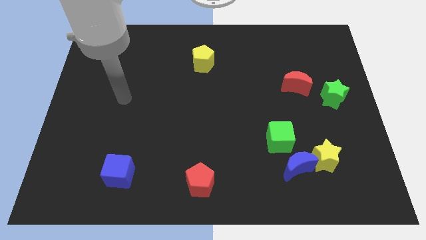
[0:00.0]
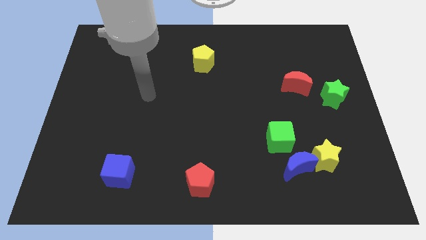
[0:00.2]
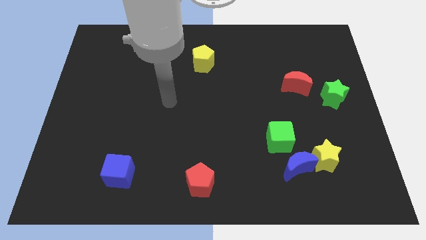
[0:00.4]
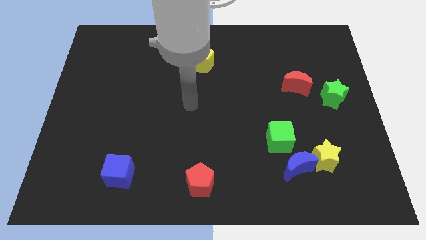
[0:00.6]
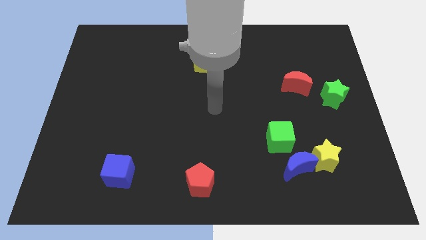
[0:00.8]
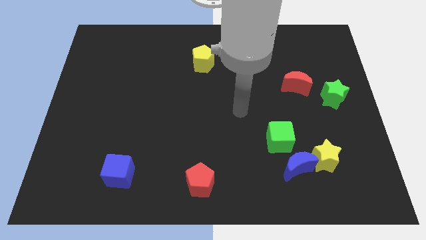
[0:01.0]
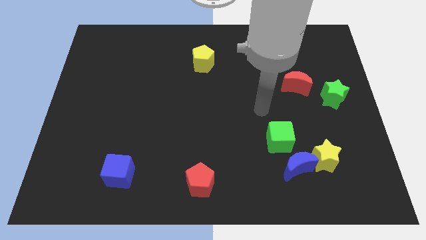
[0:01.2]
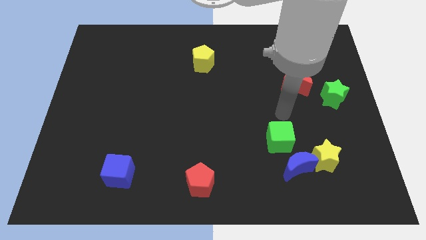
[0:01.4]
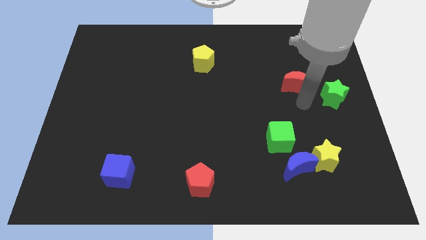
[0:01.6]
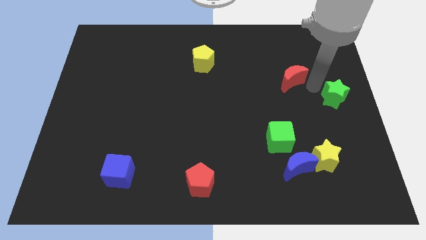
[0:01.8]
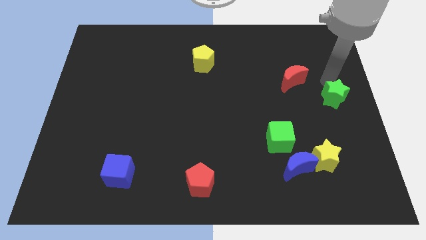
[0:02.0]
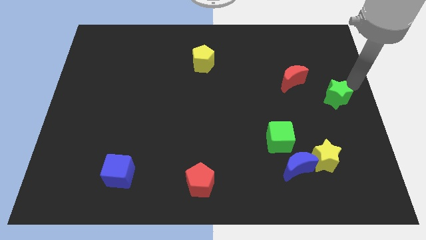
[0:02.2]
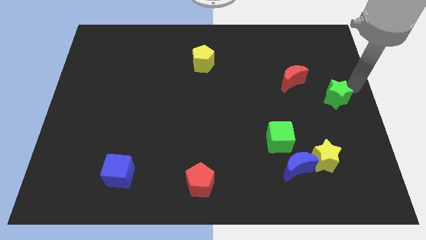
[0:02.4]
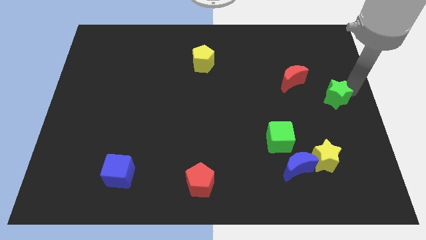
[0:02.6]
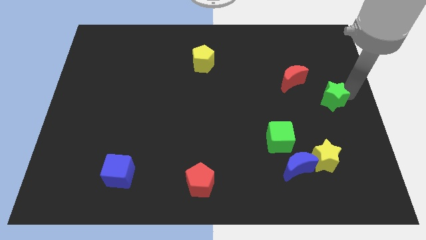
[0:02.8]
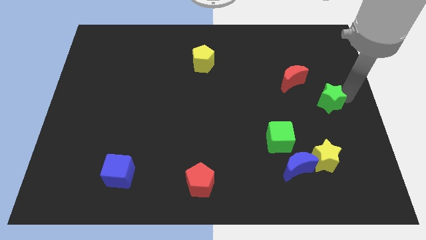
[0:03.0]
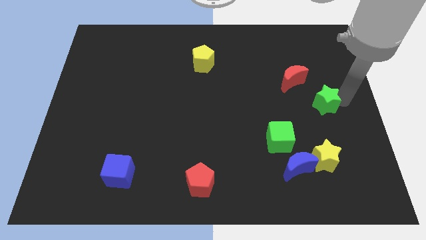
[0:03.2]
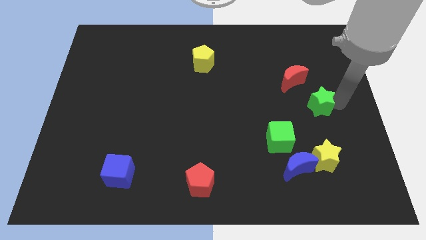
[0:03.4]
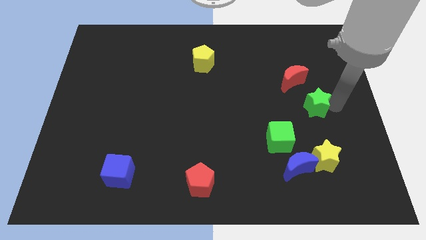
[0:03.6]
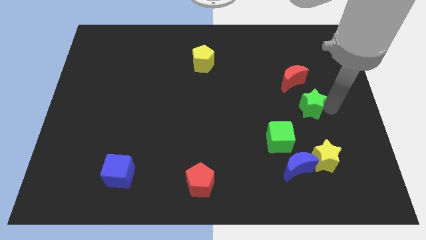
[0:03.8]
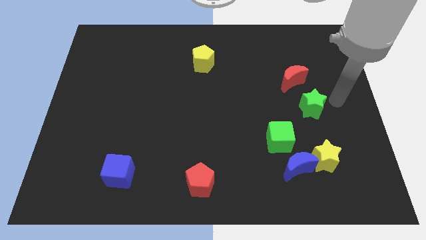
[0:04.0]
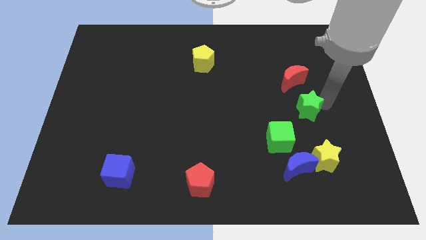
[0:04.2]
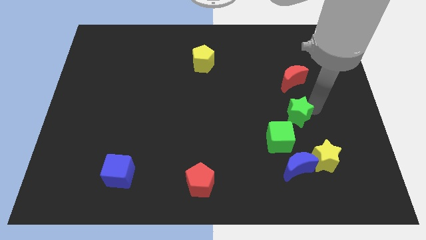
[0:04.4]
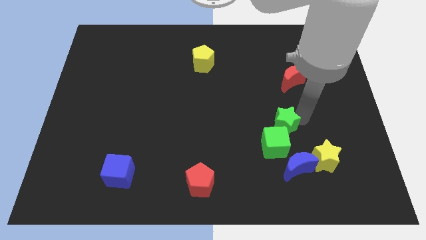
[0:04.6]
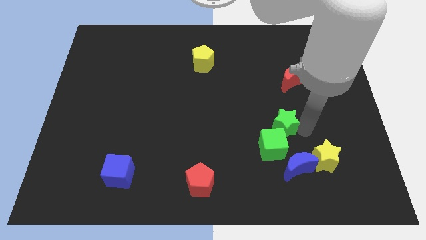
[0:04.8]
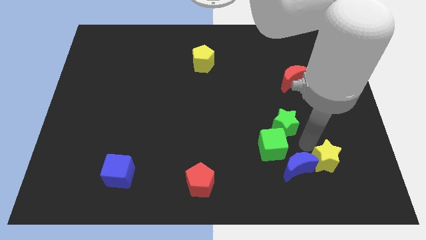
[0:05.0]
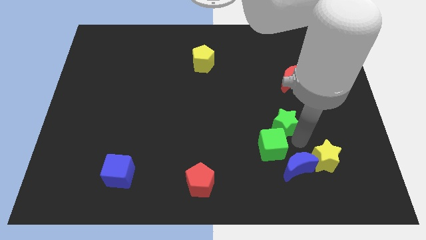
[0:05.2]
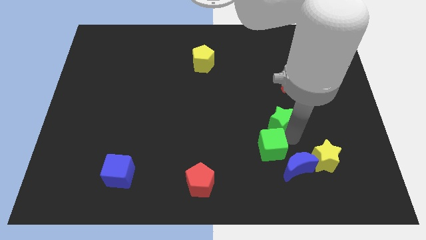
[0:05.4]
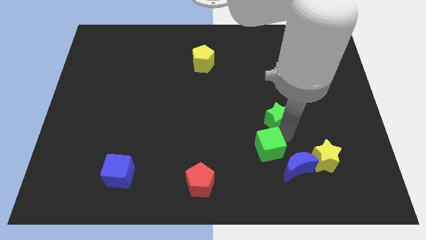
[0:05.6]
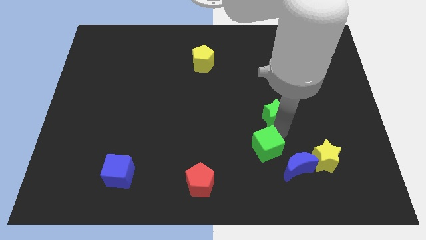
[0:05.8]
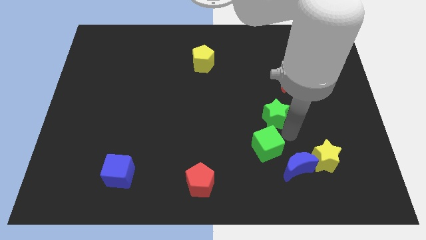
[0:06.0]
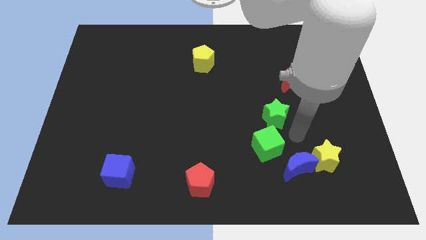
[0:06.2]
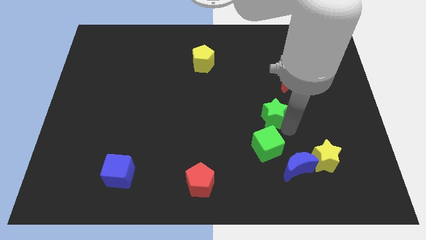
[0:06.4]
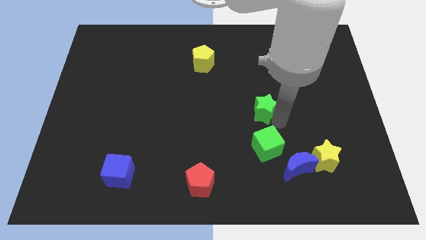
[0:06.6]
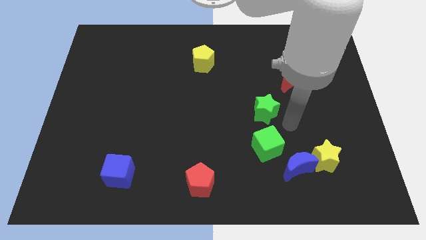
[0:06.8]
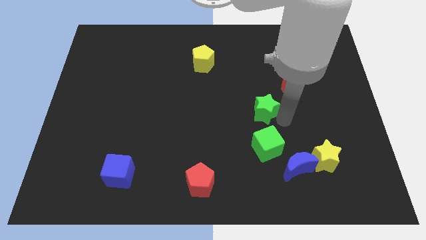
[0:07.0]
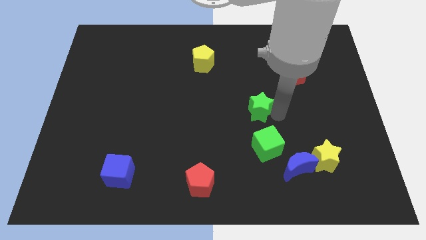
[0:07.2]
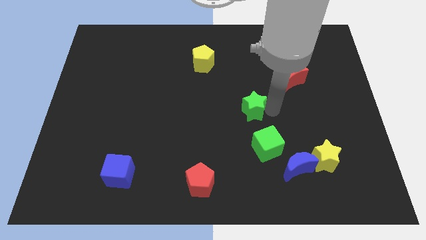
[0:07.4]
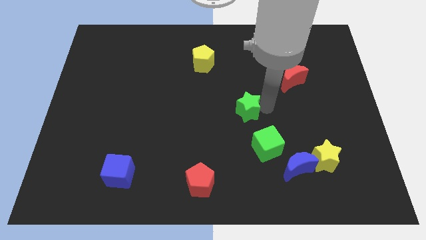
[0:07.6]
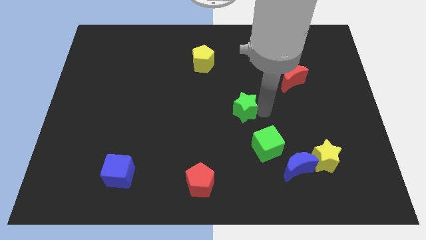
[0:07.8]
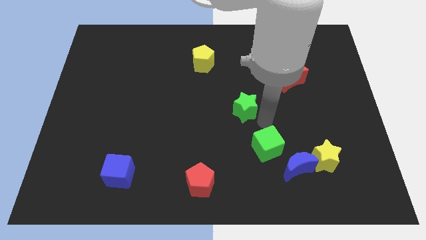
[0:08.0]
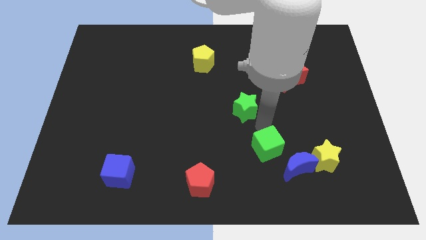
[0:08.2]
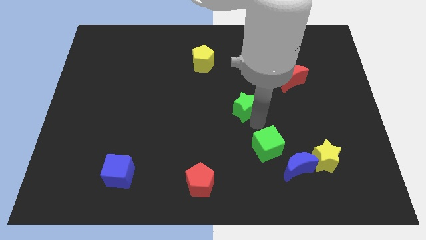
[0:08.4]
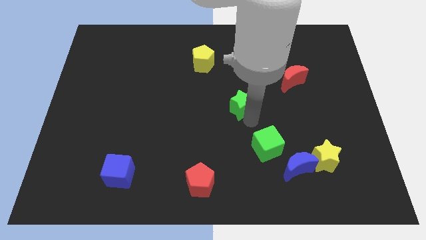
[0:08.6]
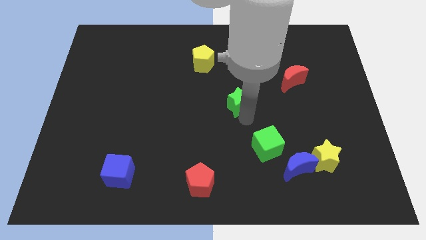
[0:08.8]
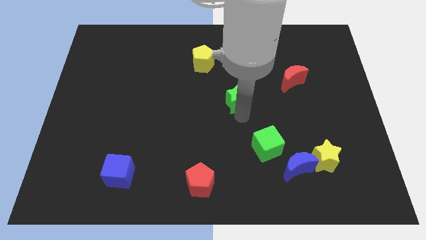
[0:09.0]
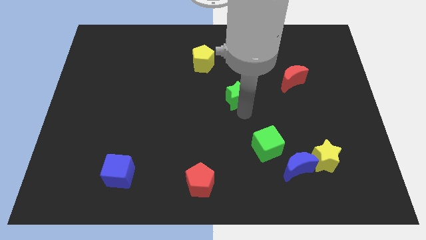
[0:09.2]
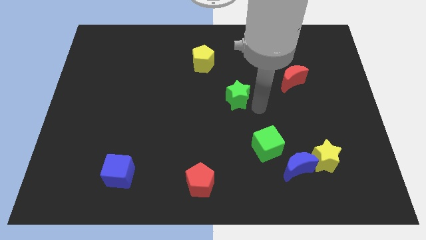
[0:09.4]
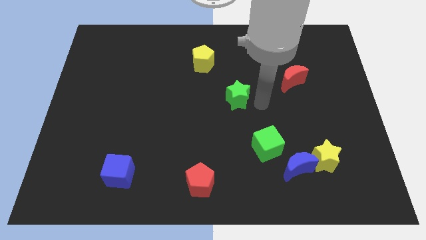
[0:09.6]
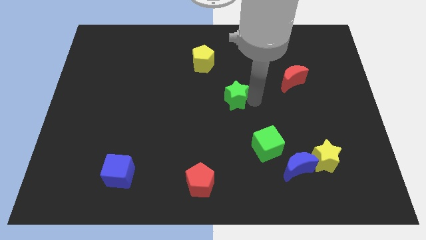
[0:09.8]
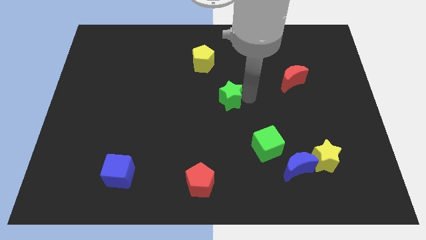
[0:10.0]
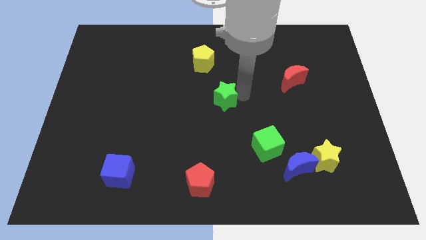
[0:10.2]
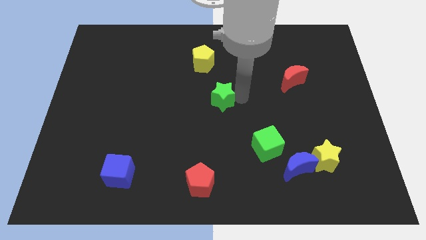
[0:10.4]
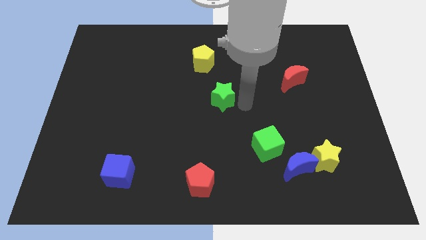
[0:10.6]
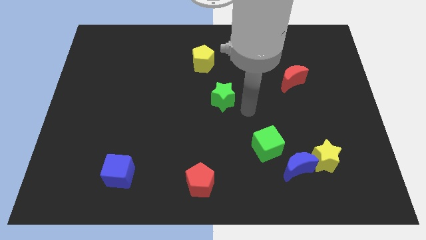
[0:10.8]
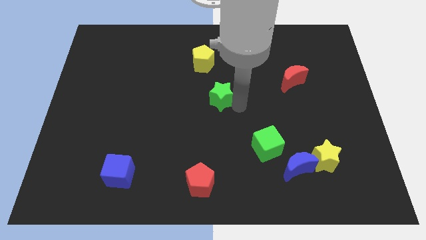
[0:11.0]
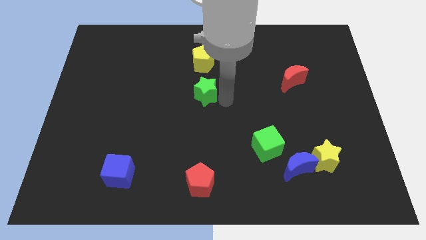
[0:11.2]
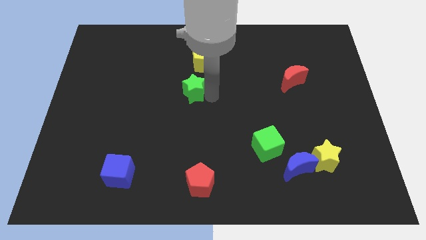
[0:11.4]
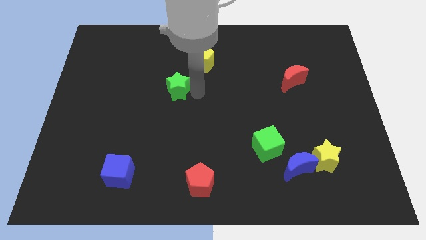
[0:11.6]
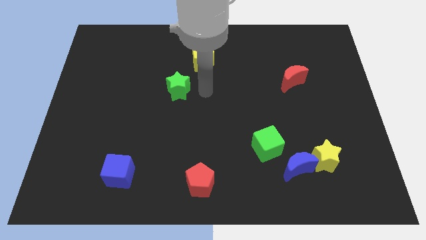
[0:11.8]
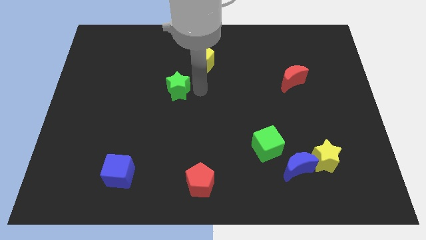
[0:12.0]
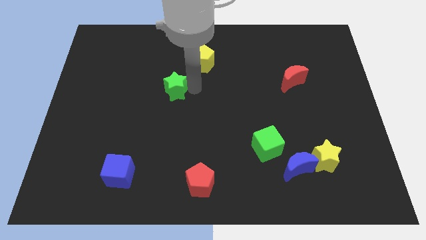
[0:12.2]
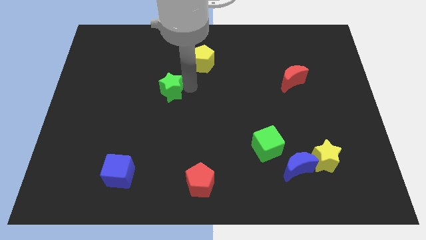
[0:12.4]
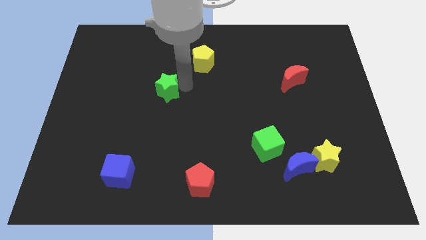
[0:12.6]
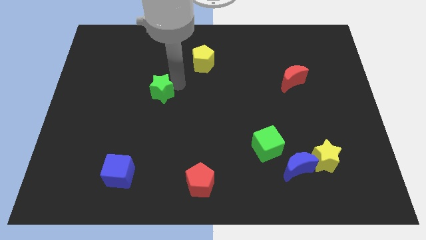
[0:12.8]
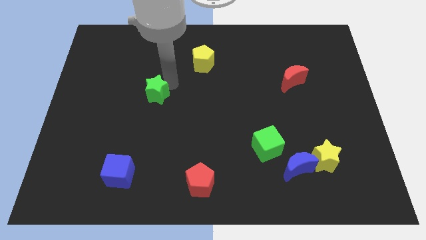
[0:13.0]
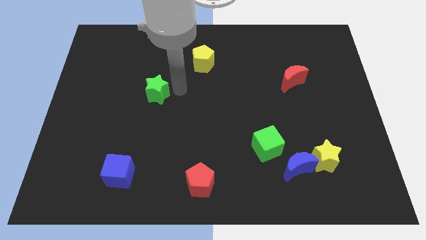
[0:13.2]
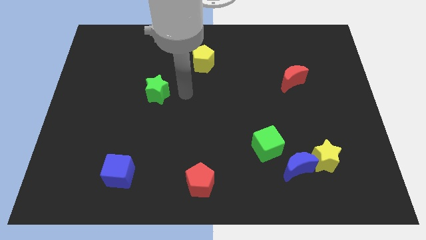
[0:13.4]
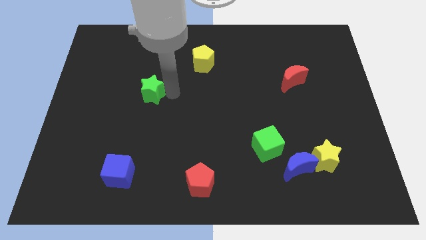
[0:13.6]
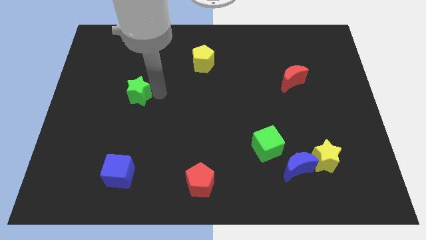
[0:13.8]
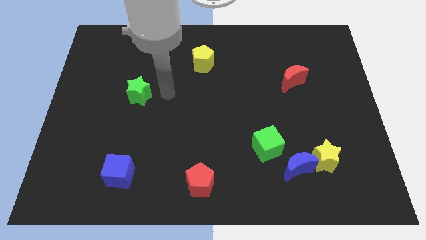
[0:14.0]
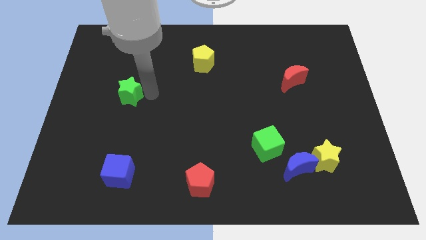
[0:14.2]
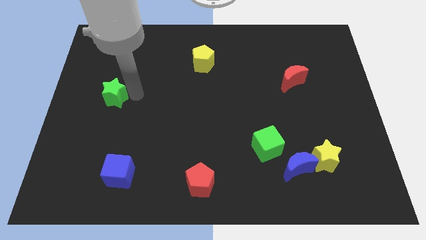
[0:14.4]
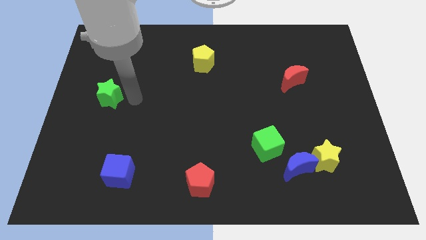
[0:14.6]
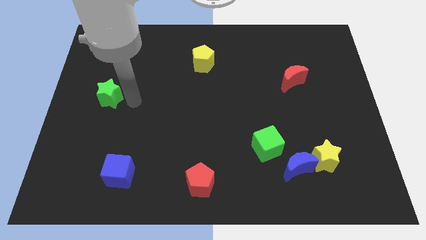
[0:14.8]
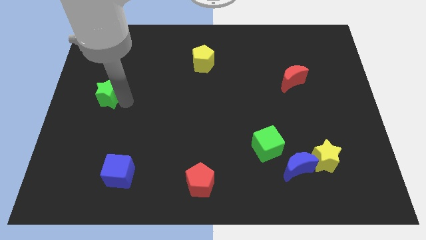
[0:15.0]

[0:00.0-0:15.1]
put the green star to the center left
